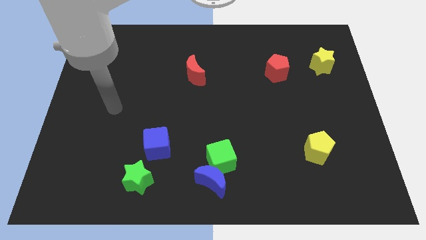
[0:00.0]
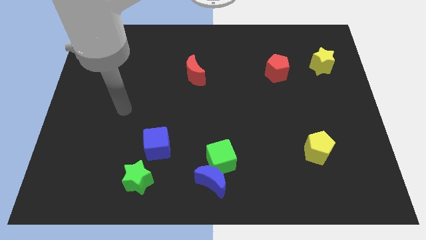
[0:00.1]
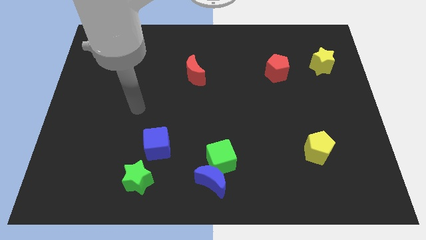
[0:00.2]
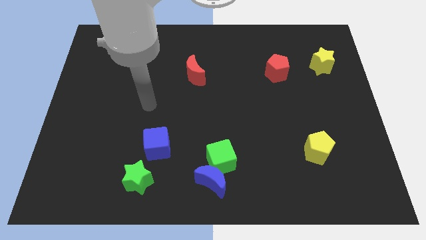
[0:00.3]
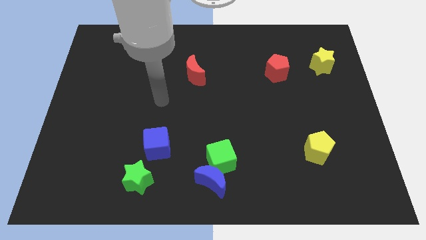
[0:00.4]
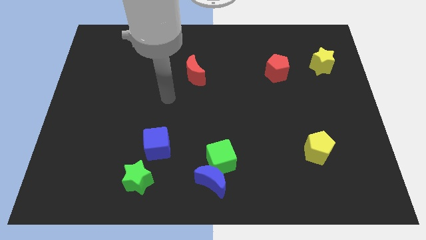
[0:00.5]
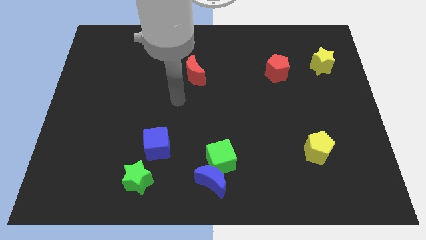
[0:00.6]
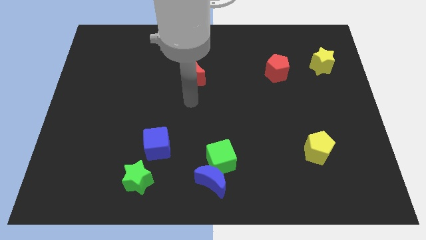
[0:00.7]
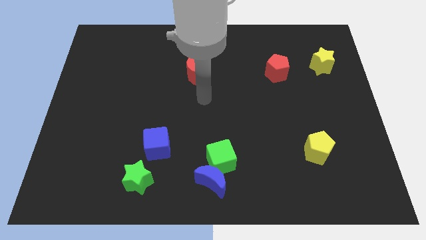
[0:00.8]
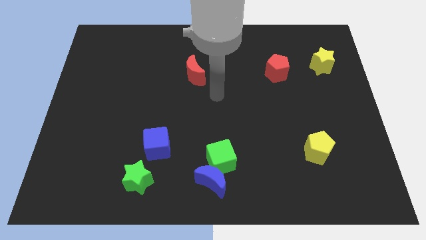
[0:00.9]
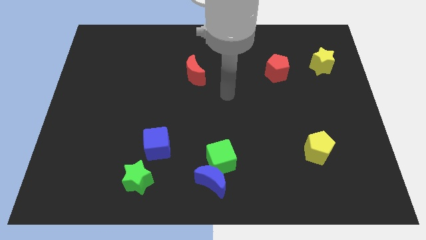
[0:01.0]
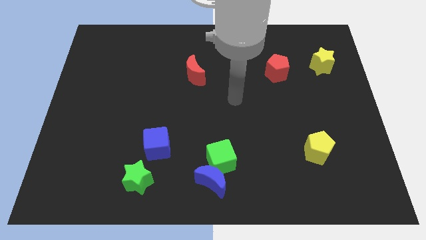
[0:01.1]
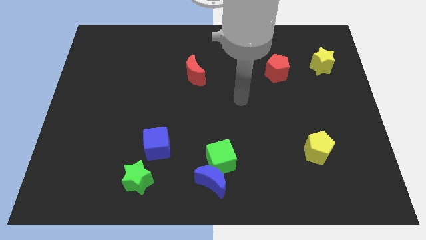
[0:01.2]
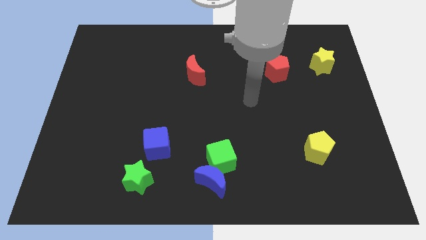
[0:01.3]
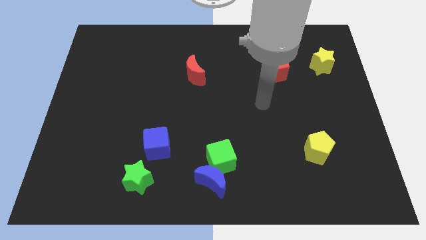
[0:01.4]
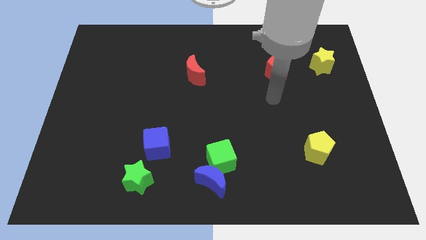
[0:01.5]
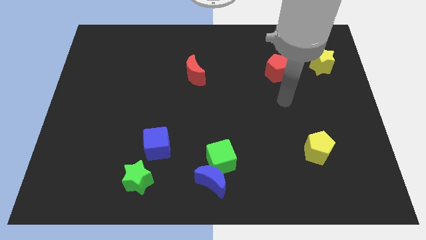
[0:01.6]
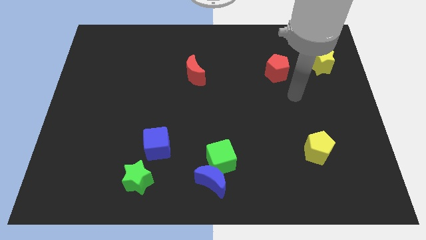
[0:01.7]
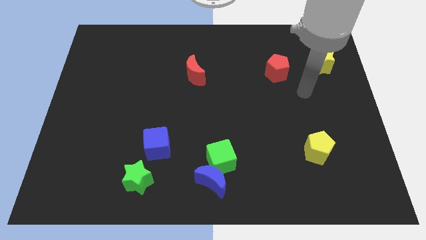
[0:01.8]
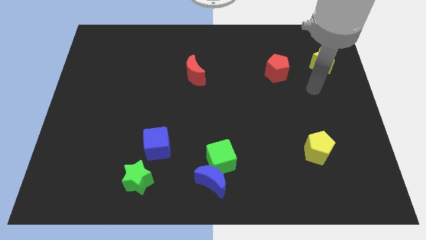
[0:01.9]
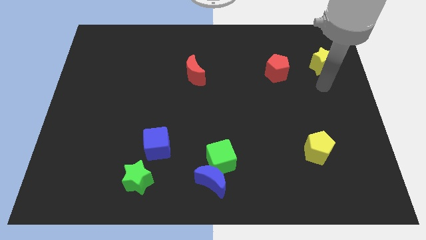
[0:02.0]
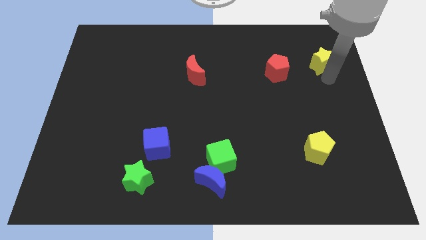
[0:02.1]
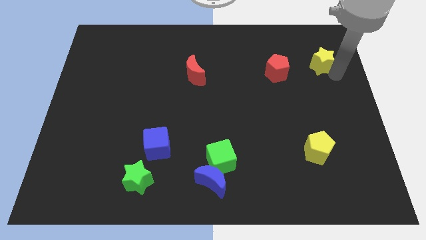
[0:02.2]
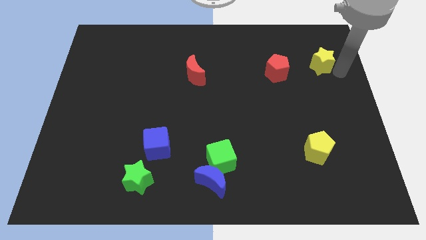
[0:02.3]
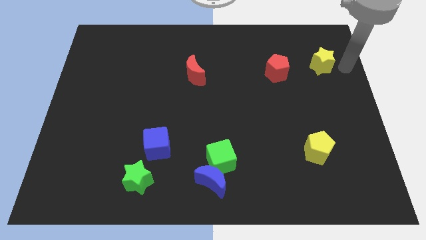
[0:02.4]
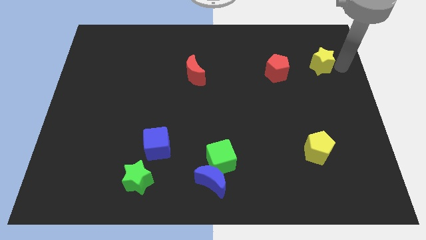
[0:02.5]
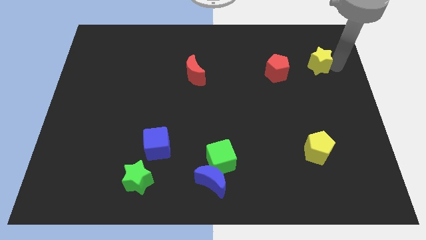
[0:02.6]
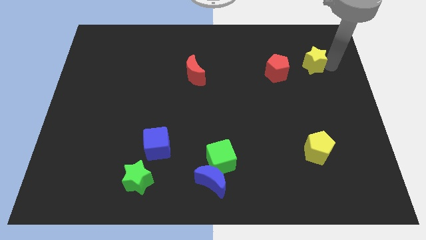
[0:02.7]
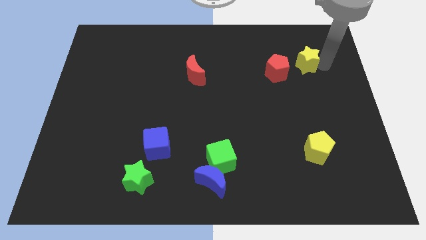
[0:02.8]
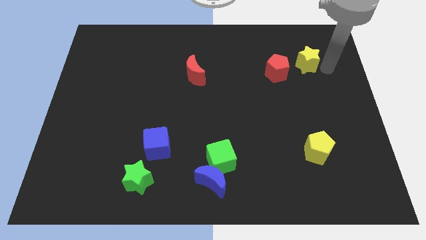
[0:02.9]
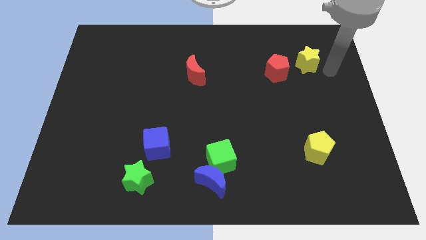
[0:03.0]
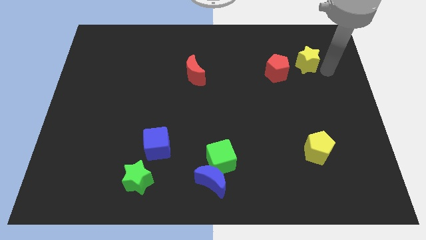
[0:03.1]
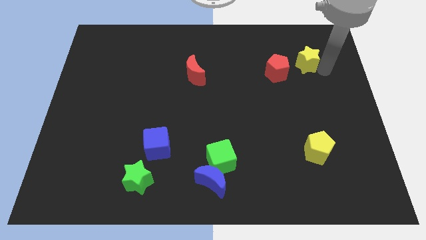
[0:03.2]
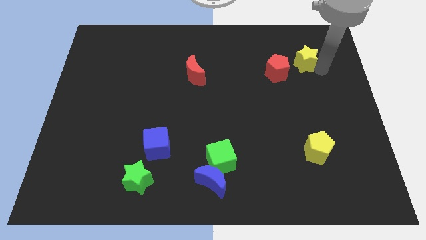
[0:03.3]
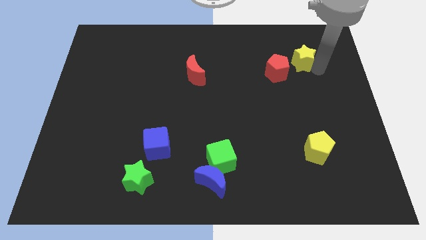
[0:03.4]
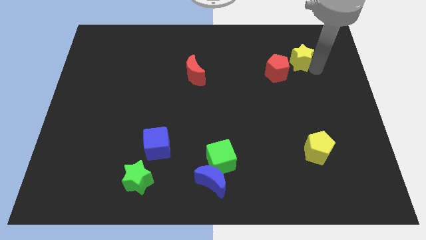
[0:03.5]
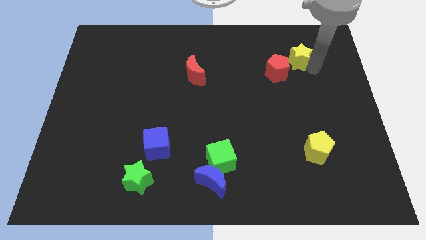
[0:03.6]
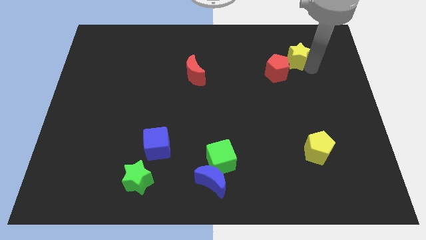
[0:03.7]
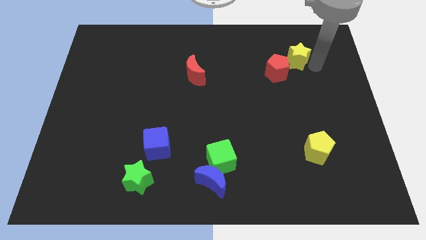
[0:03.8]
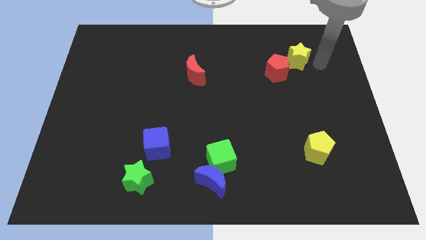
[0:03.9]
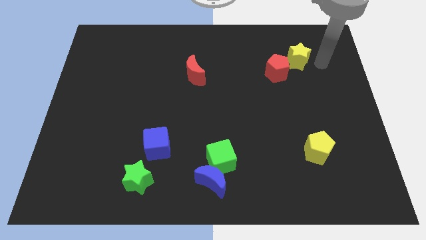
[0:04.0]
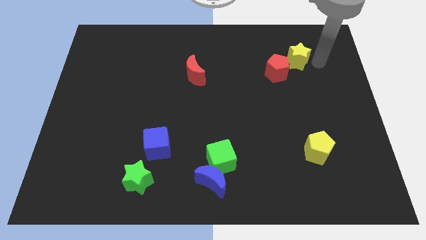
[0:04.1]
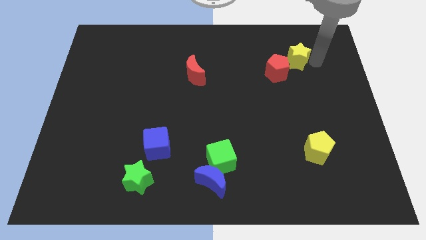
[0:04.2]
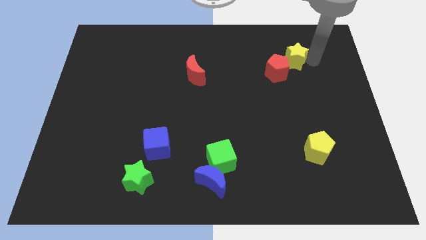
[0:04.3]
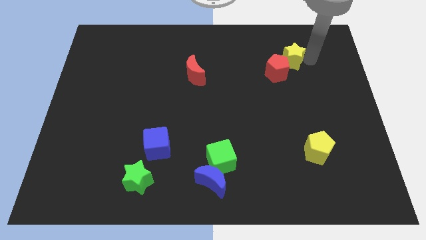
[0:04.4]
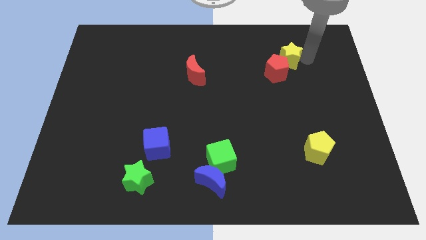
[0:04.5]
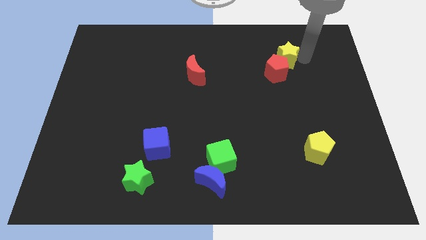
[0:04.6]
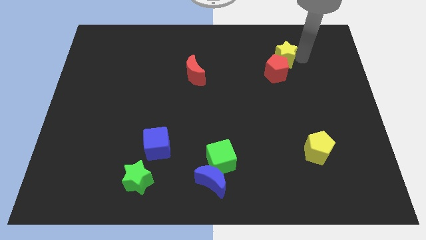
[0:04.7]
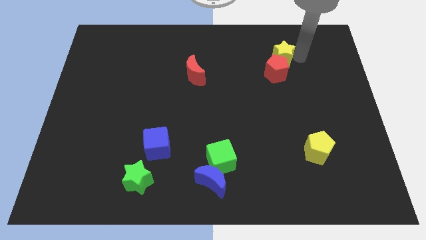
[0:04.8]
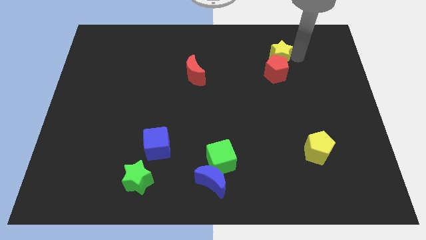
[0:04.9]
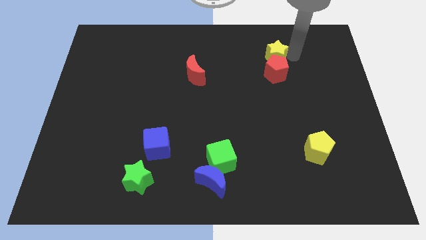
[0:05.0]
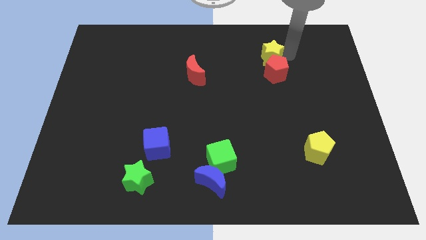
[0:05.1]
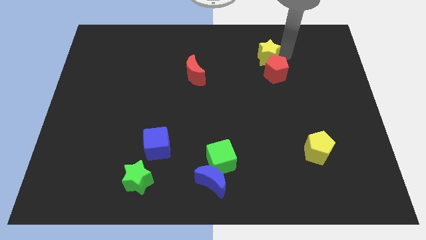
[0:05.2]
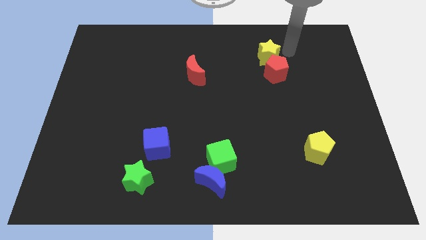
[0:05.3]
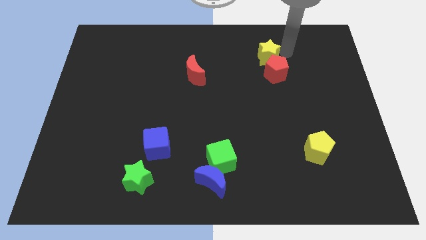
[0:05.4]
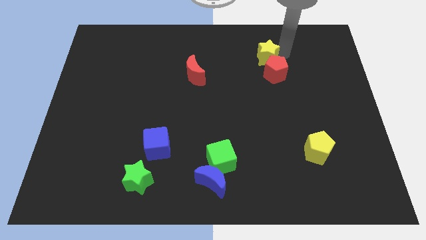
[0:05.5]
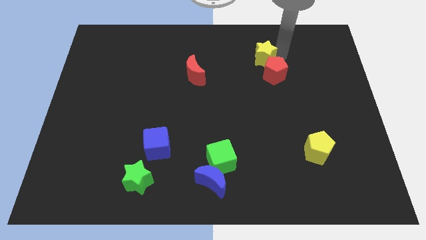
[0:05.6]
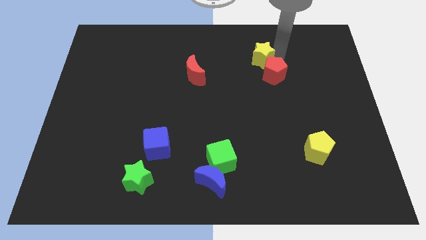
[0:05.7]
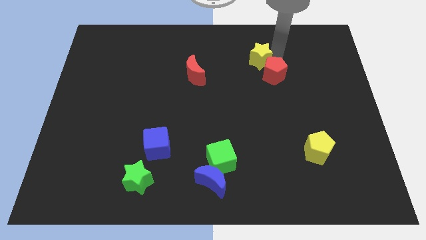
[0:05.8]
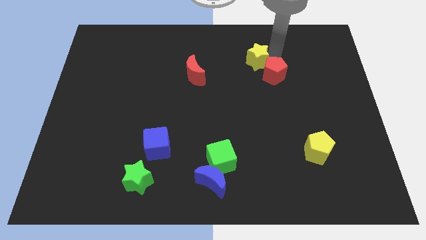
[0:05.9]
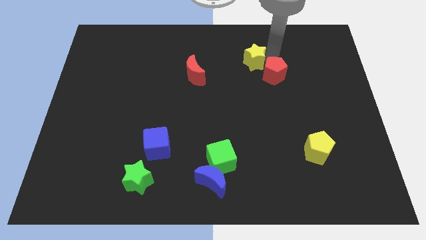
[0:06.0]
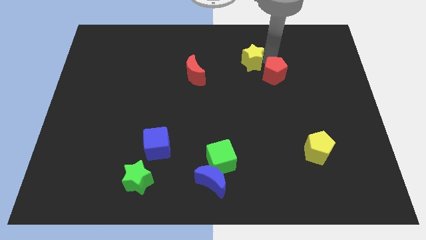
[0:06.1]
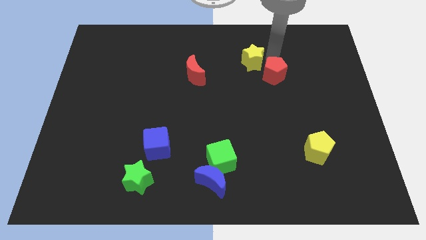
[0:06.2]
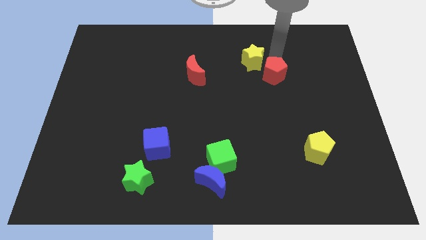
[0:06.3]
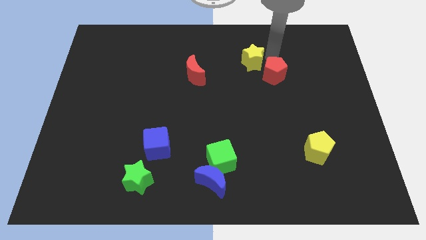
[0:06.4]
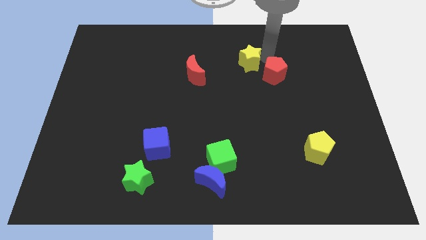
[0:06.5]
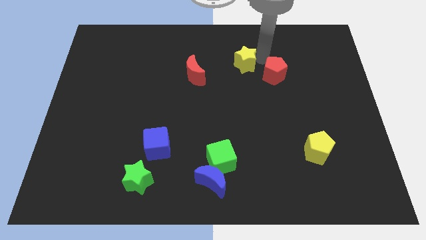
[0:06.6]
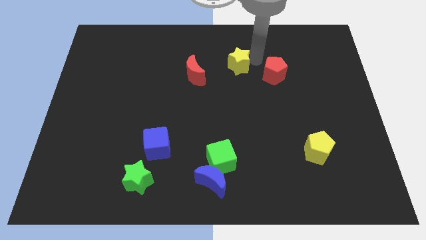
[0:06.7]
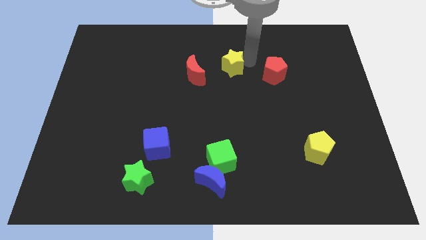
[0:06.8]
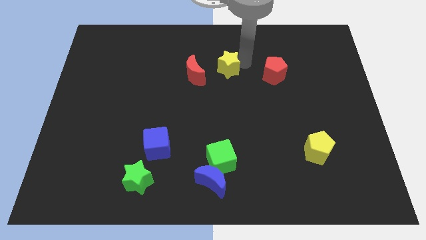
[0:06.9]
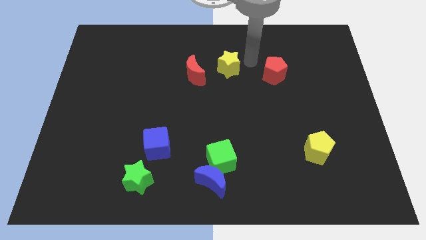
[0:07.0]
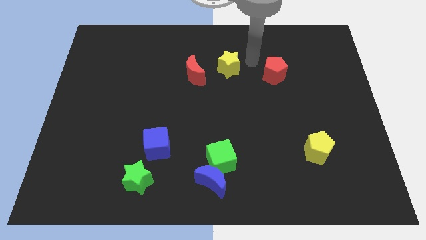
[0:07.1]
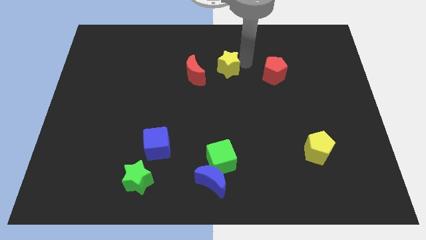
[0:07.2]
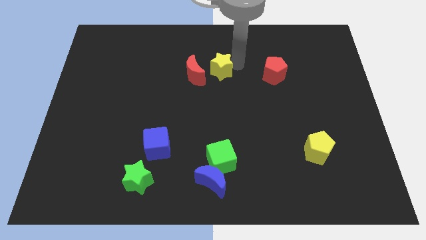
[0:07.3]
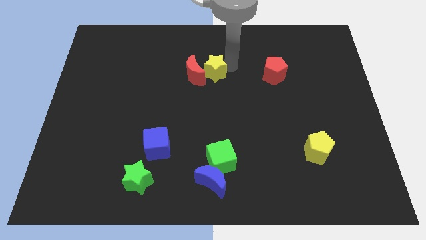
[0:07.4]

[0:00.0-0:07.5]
push the yellow star close to the red moon

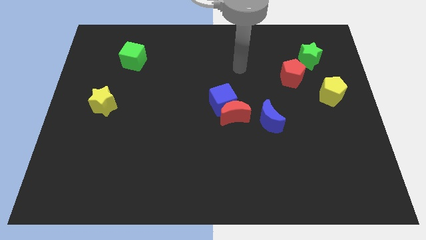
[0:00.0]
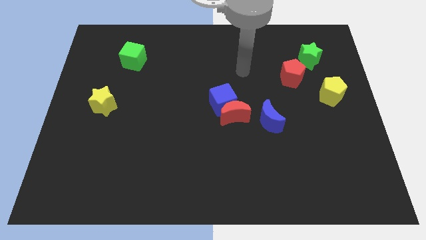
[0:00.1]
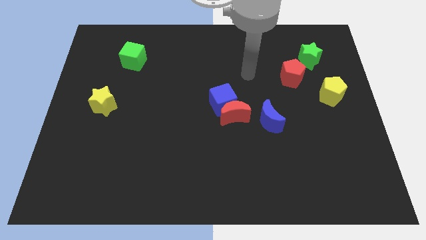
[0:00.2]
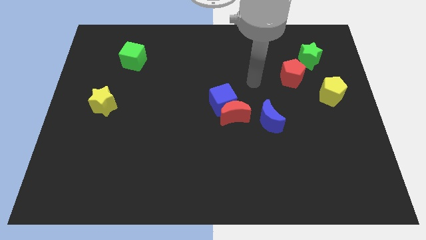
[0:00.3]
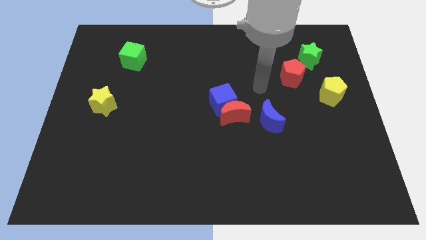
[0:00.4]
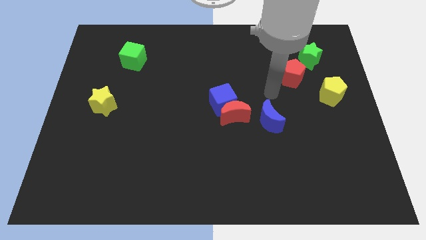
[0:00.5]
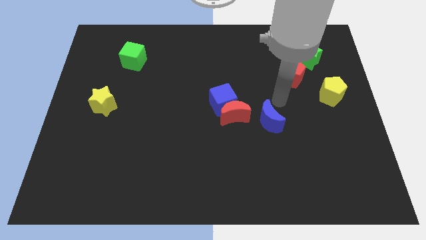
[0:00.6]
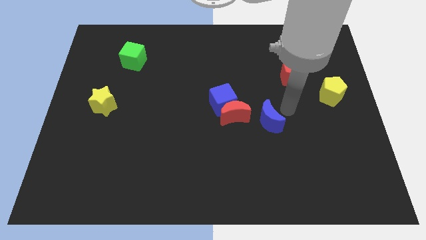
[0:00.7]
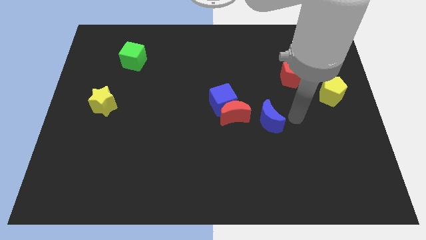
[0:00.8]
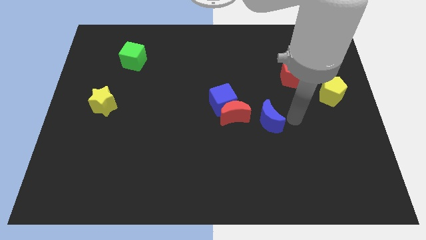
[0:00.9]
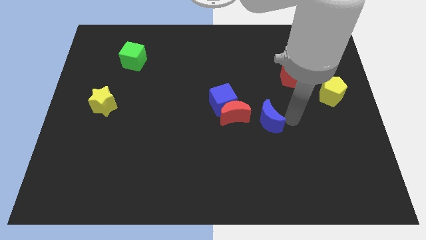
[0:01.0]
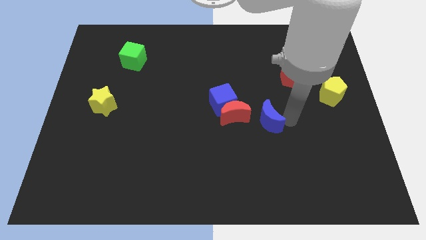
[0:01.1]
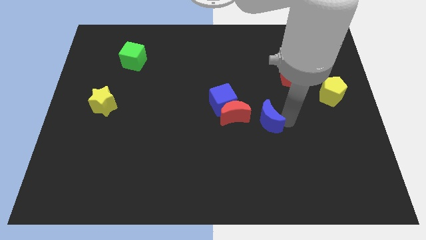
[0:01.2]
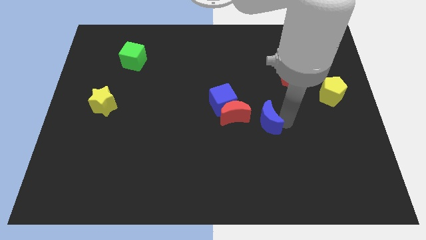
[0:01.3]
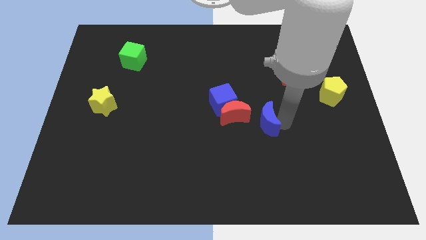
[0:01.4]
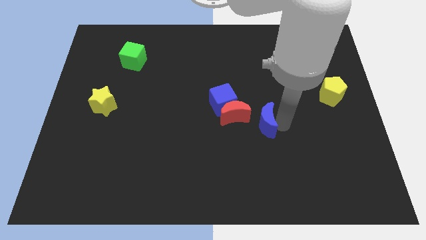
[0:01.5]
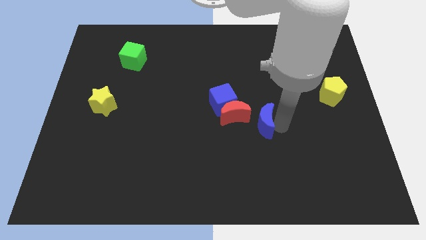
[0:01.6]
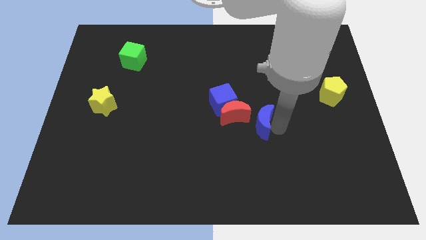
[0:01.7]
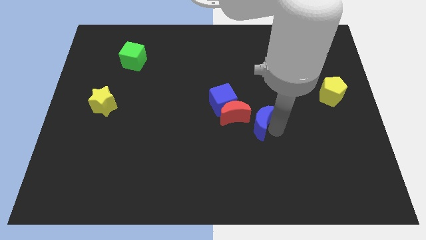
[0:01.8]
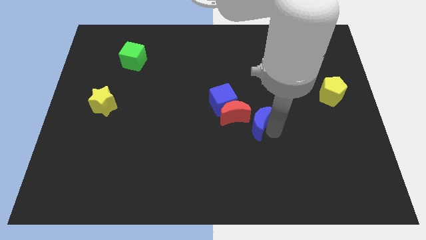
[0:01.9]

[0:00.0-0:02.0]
move the blue moon towards the red moon
